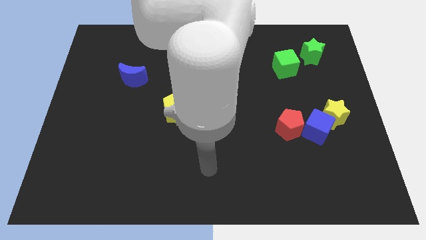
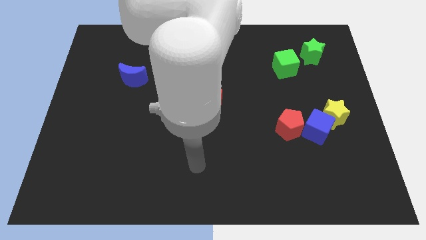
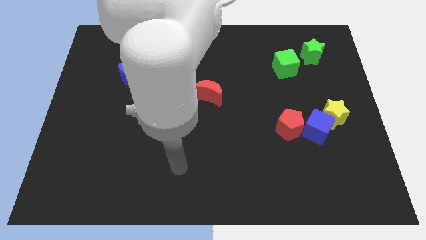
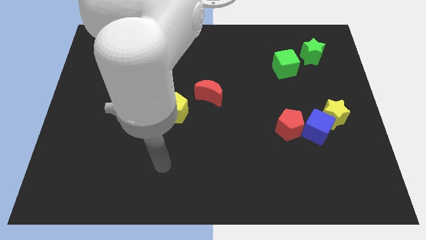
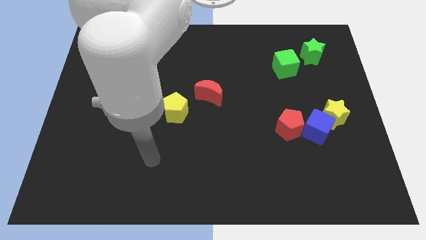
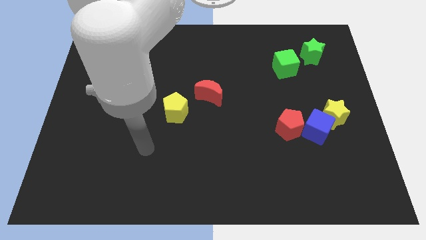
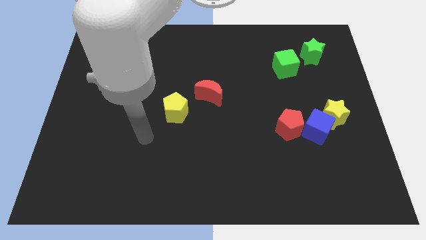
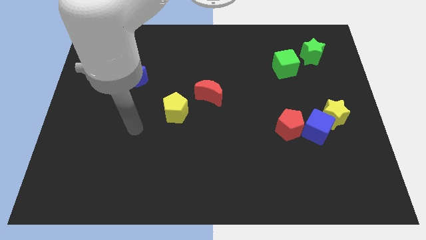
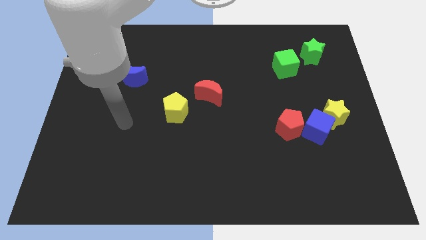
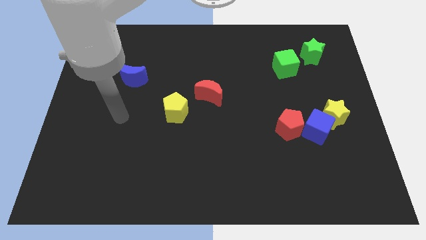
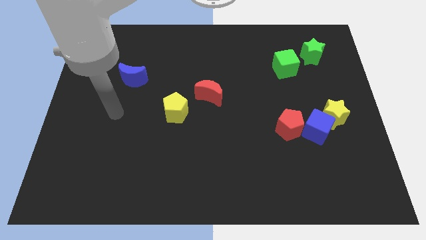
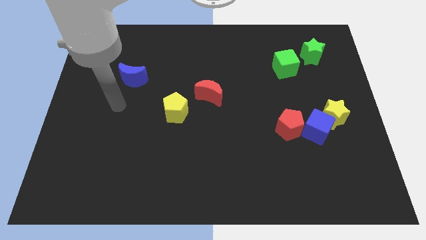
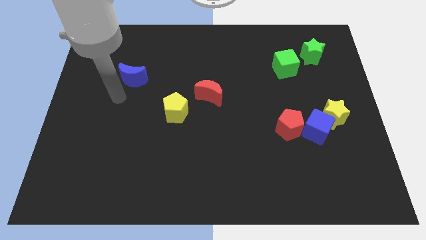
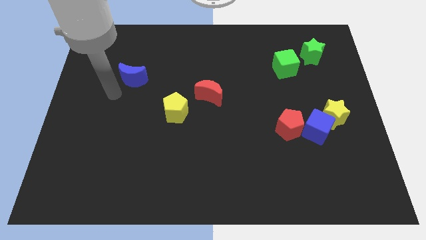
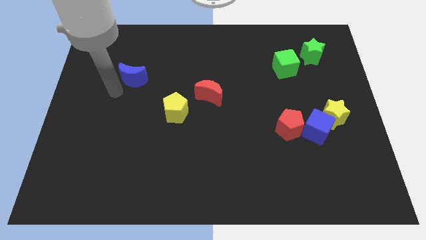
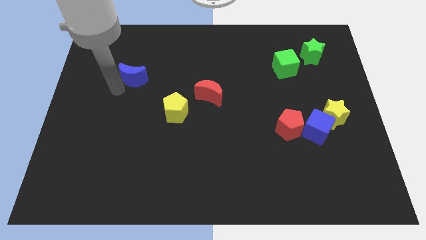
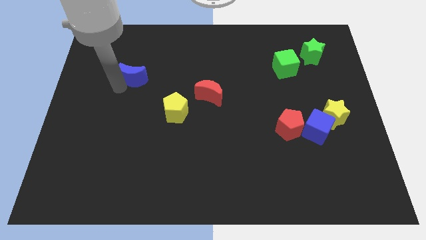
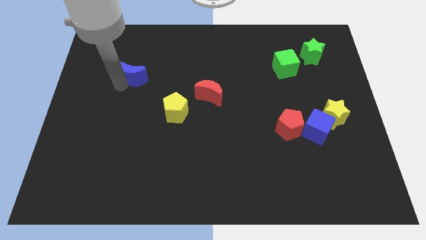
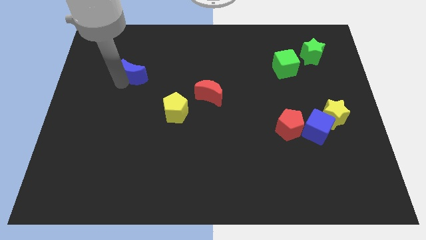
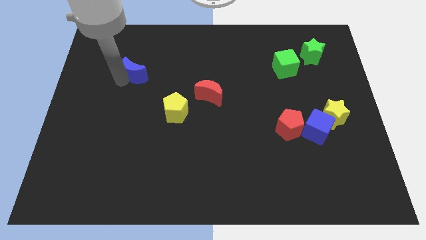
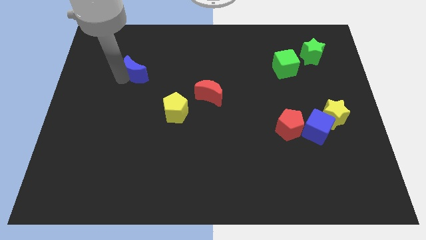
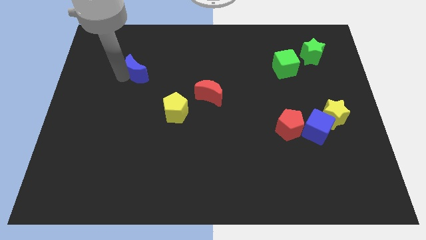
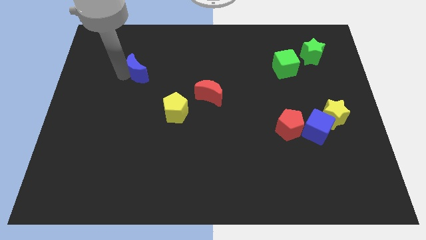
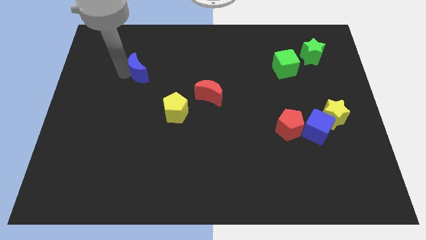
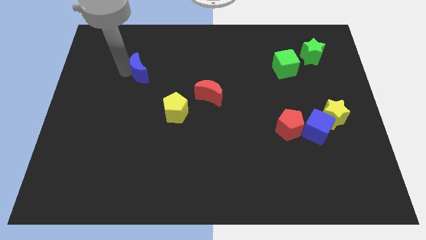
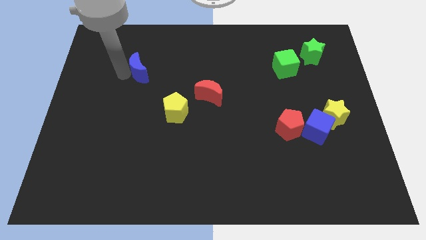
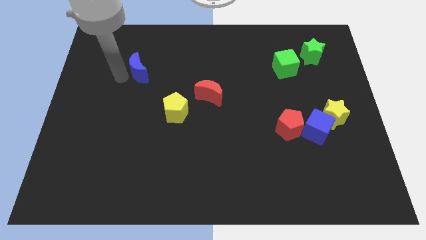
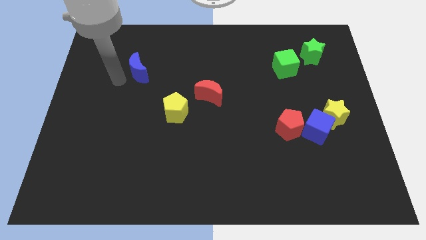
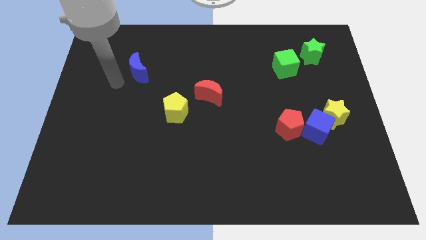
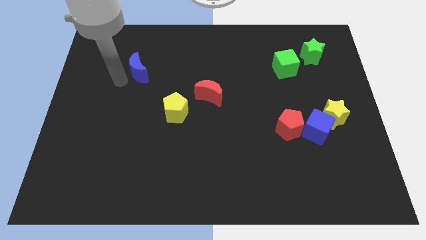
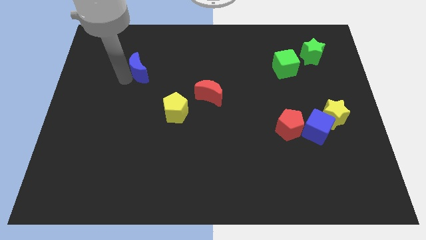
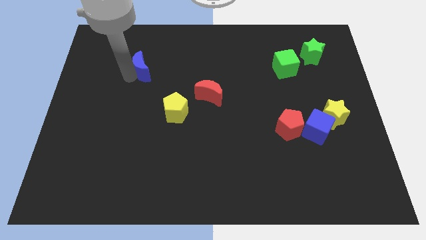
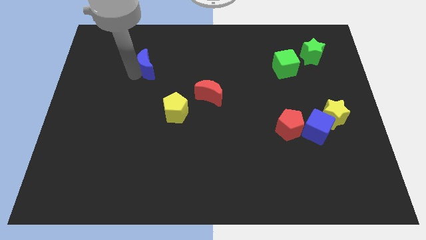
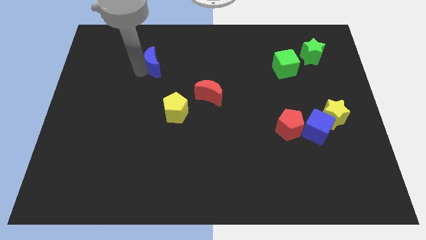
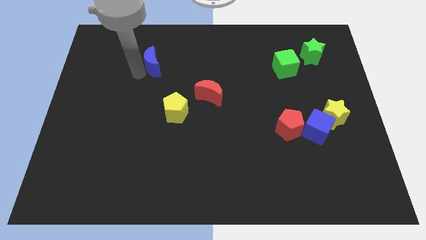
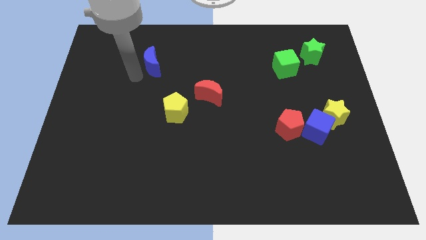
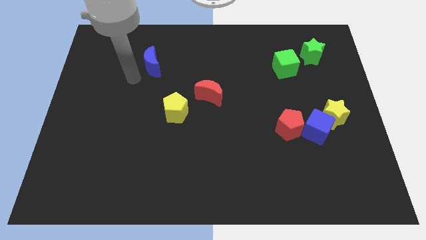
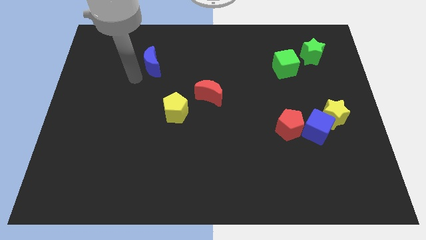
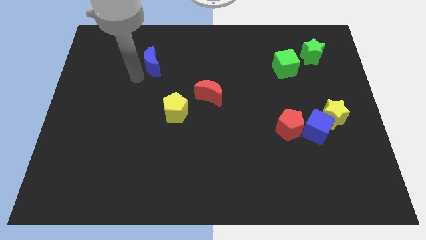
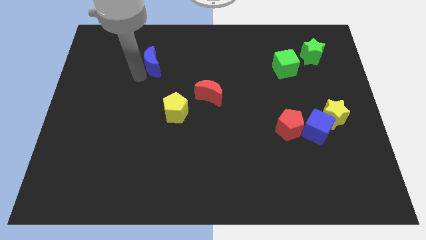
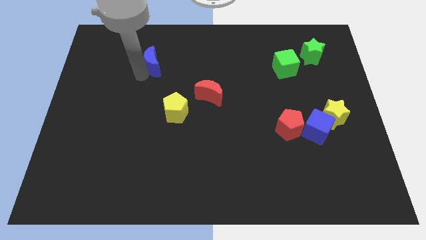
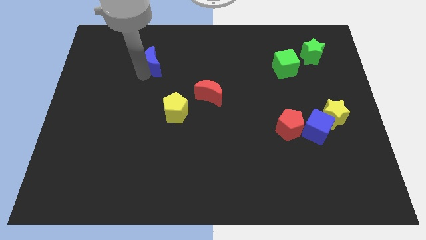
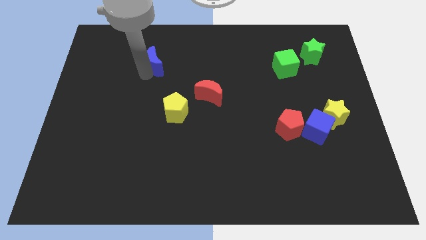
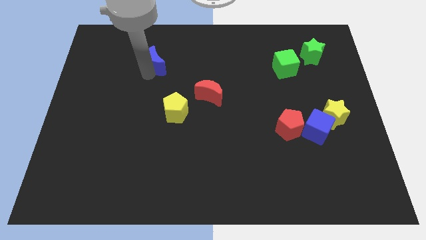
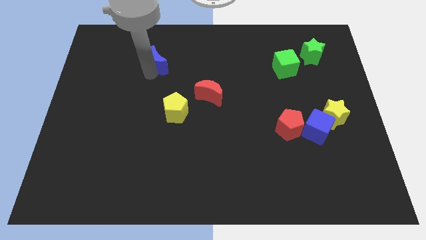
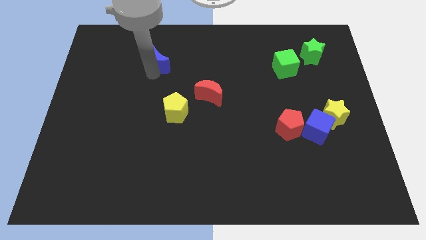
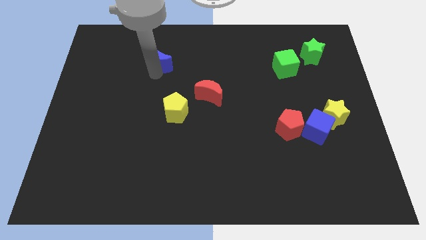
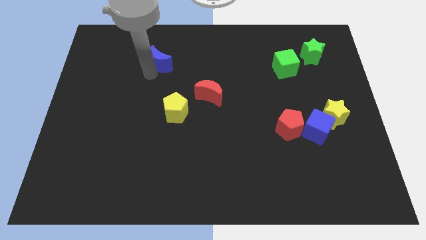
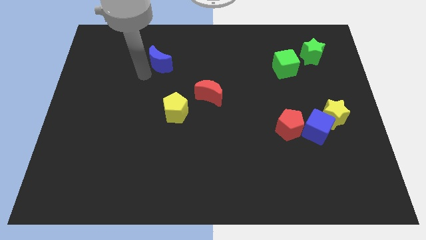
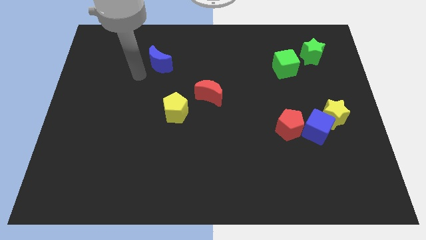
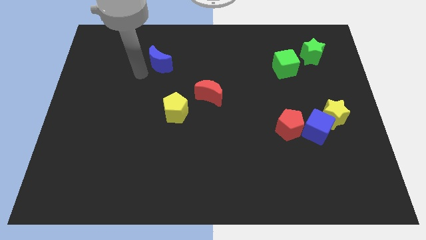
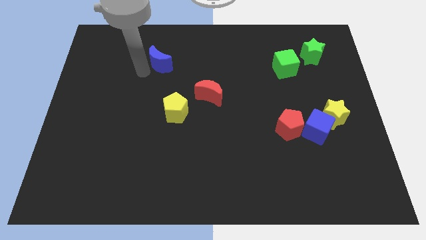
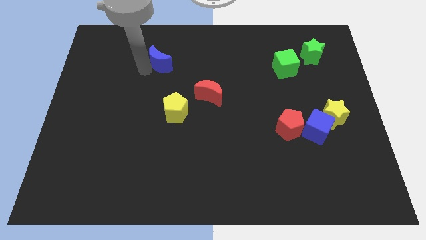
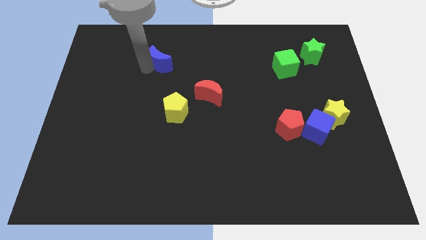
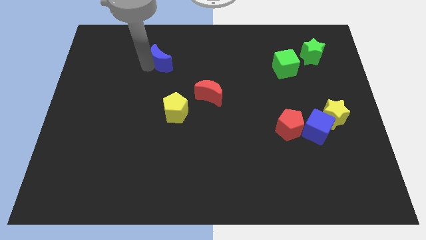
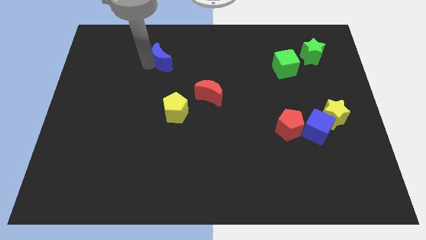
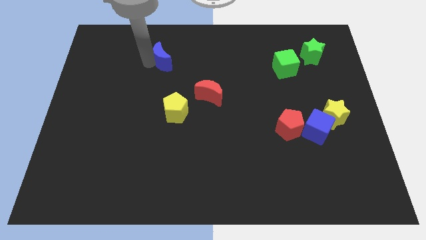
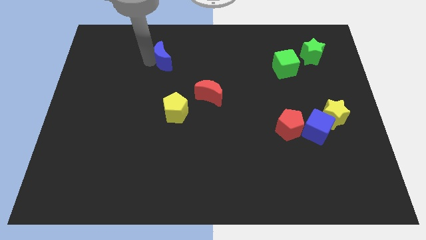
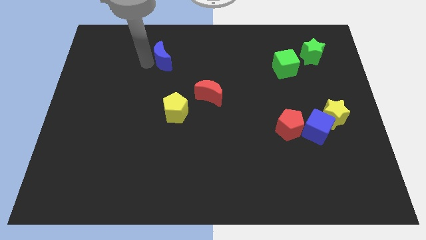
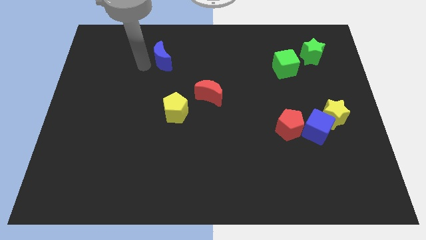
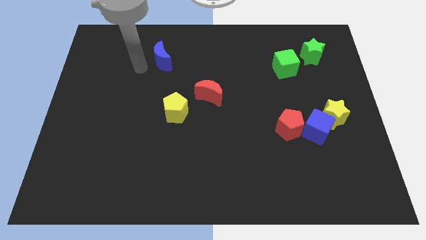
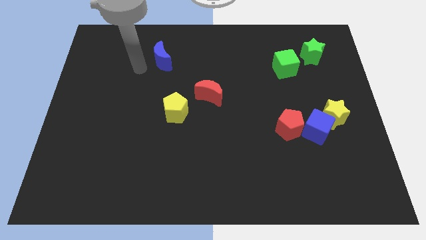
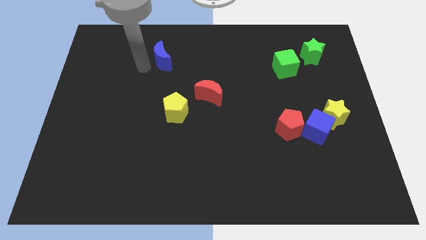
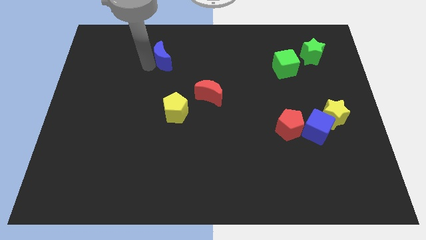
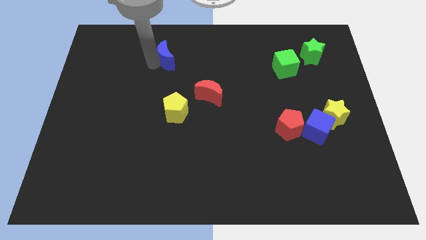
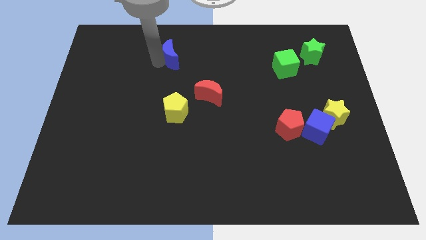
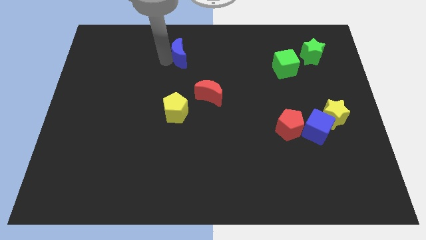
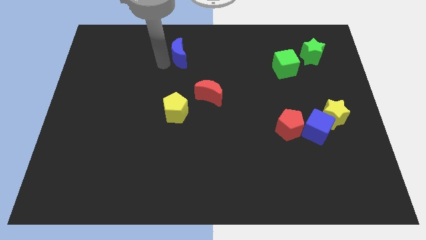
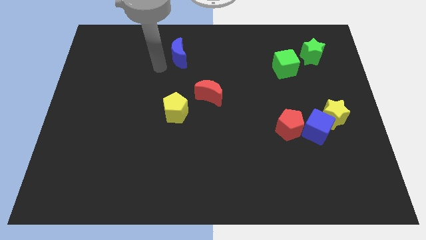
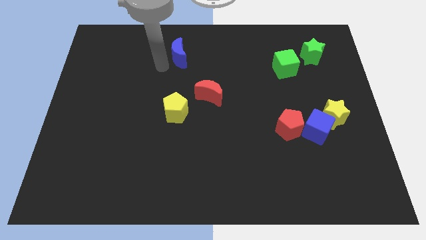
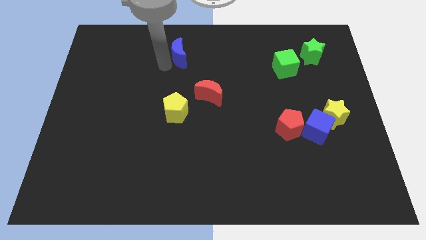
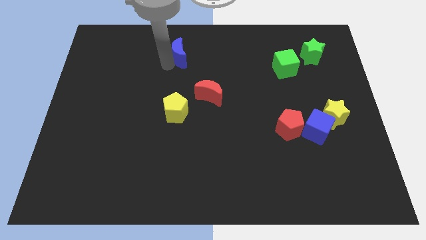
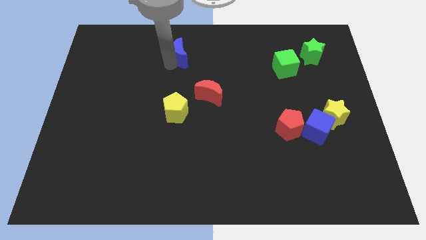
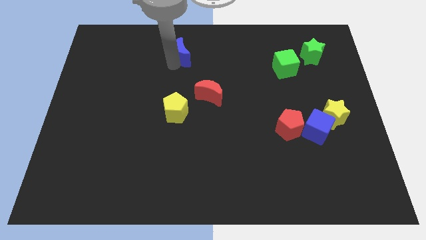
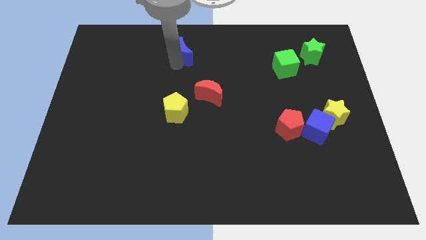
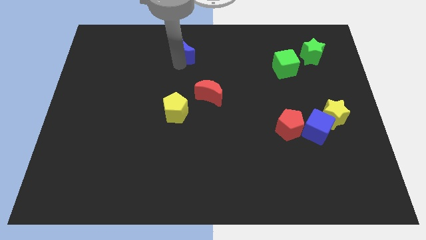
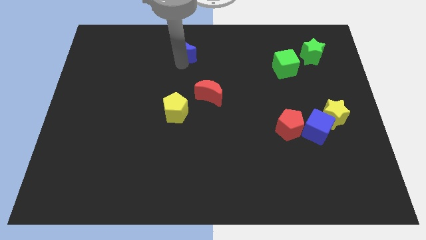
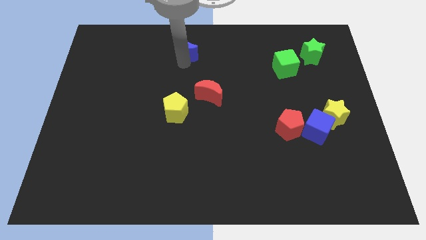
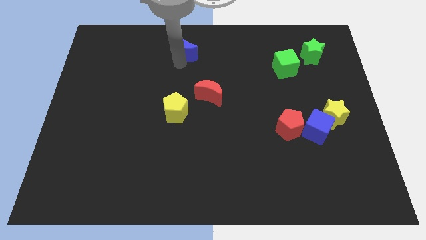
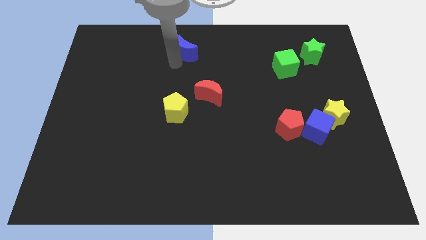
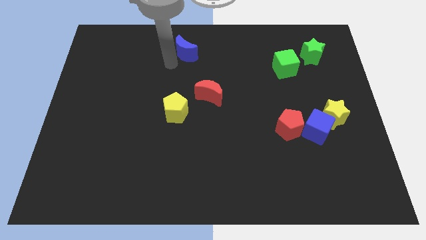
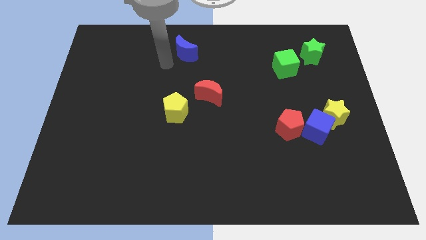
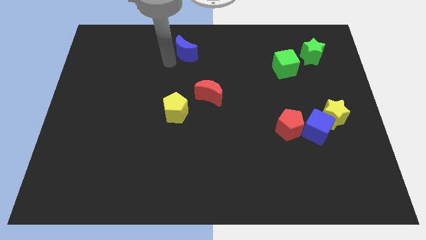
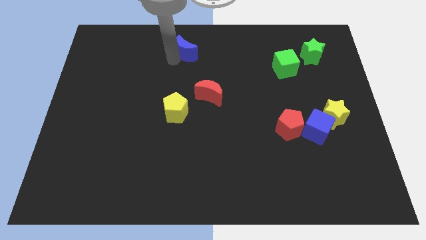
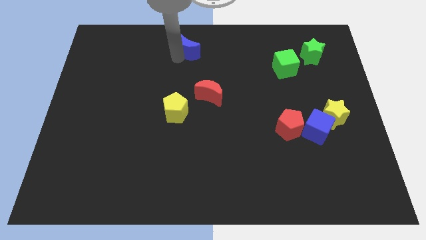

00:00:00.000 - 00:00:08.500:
push the blue moon to the top
